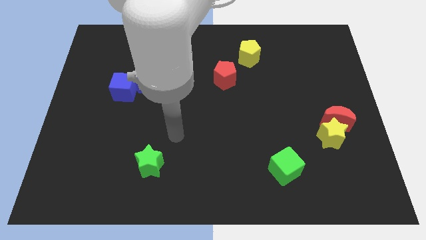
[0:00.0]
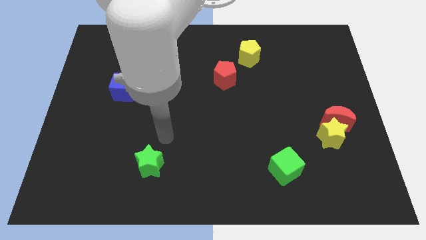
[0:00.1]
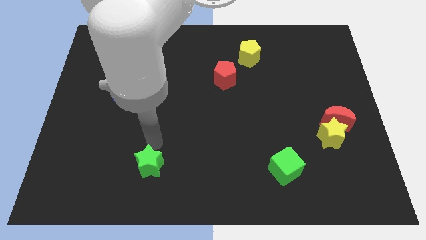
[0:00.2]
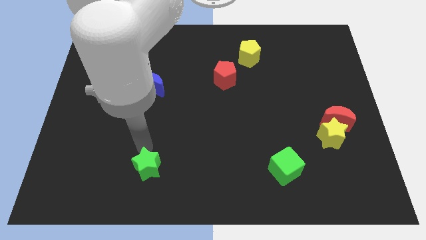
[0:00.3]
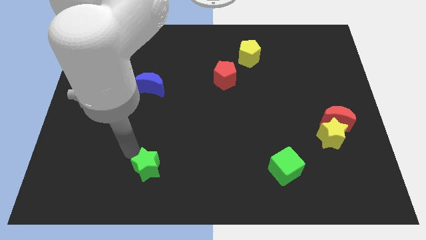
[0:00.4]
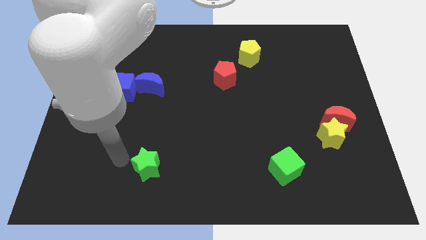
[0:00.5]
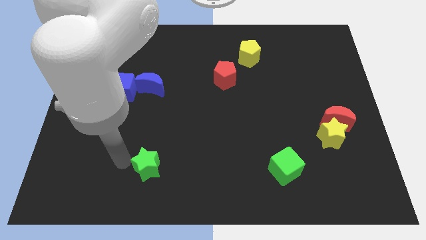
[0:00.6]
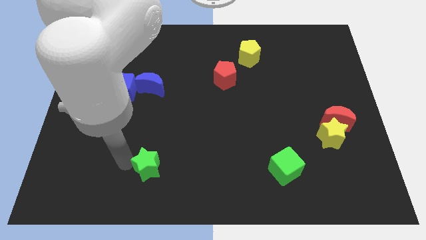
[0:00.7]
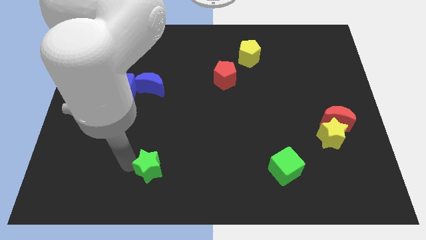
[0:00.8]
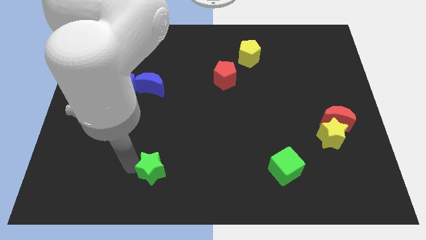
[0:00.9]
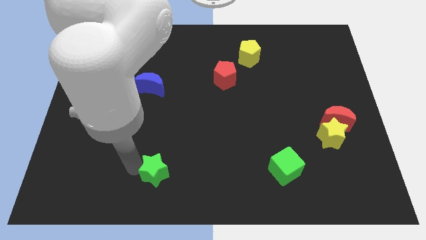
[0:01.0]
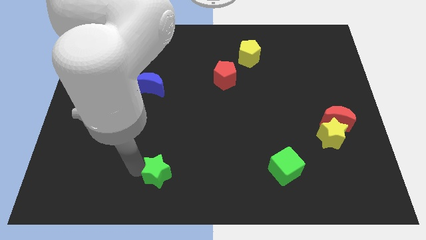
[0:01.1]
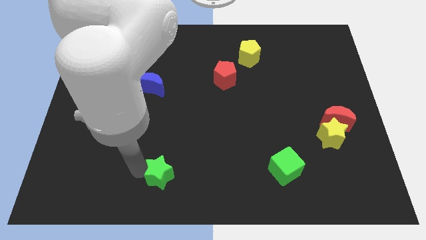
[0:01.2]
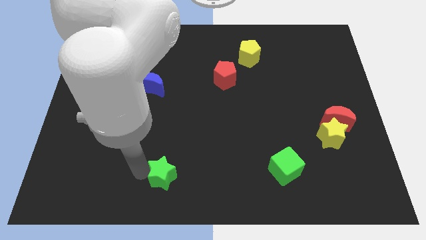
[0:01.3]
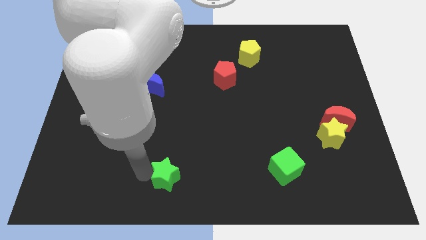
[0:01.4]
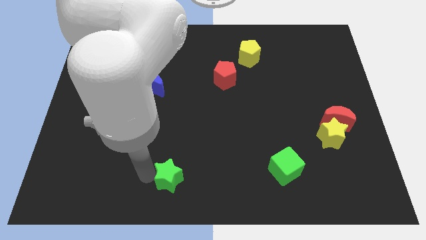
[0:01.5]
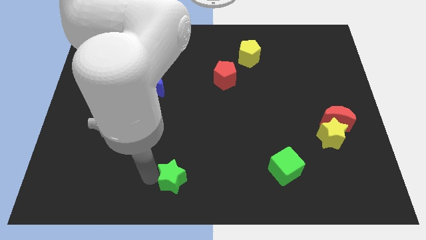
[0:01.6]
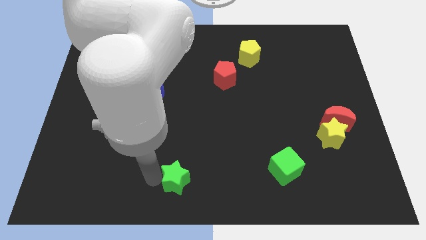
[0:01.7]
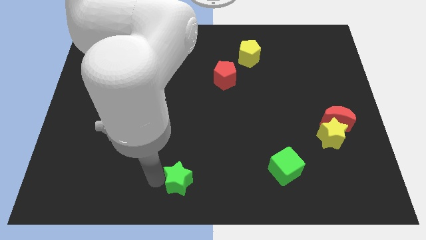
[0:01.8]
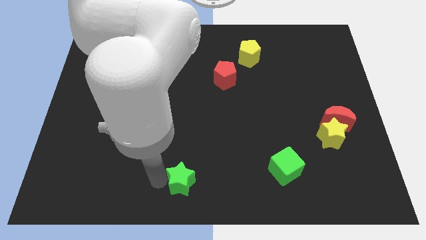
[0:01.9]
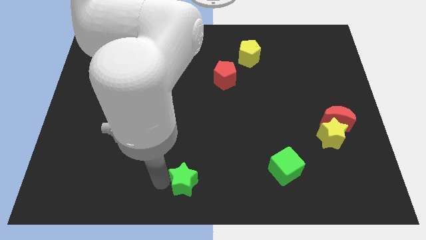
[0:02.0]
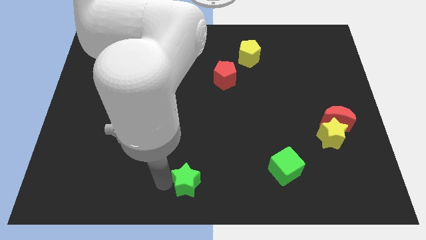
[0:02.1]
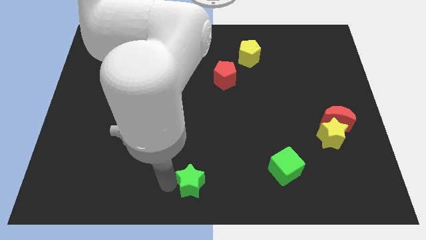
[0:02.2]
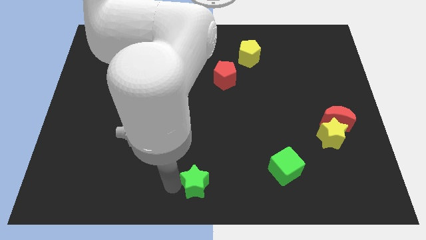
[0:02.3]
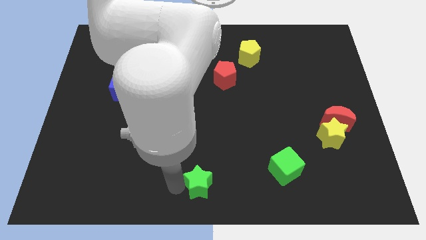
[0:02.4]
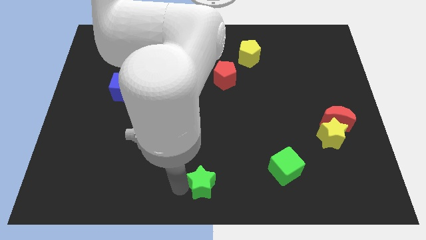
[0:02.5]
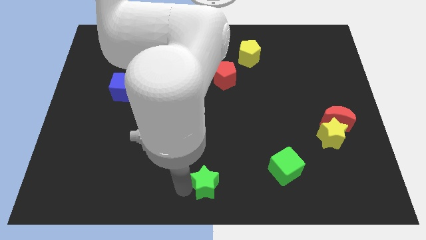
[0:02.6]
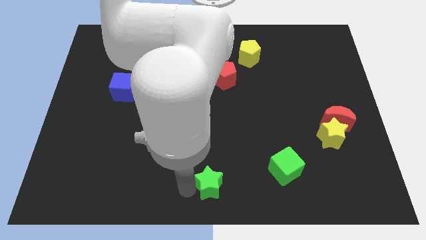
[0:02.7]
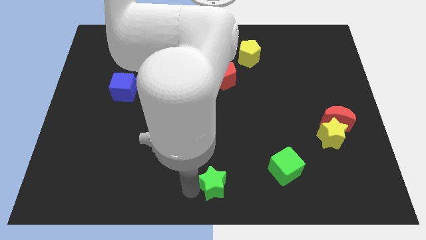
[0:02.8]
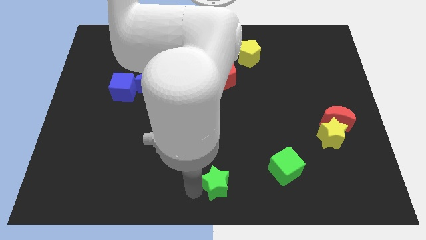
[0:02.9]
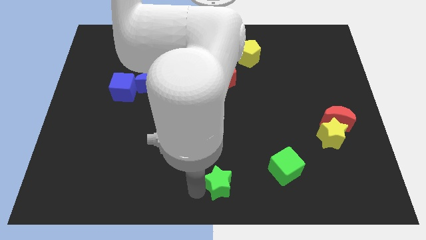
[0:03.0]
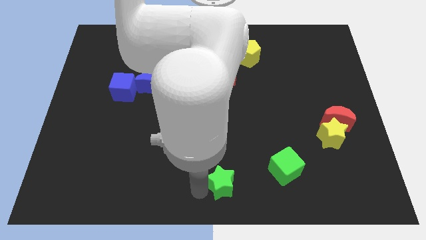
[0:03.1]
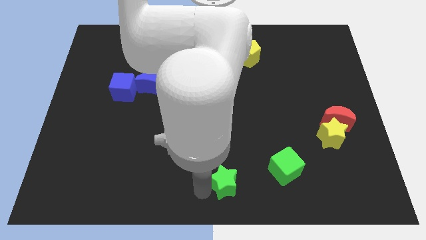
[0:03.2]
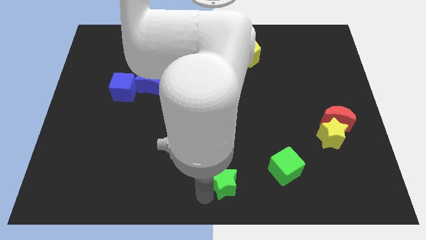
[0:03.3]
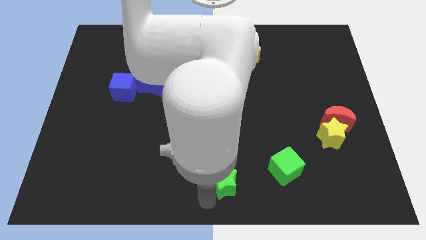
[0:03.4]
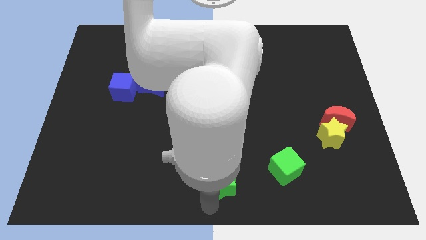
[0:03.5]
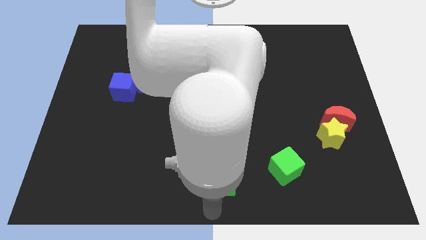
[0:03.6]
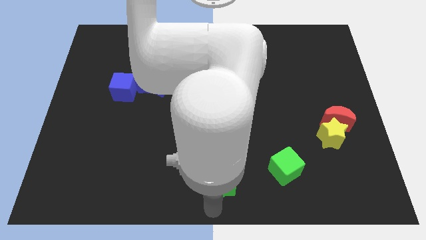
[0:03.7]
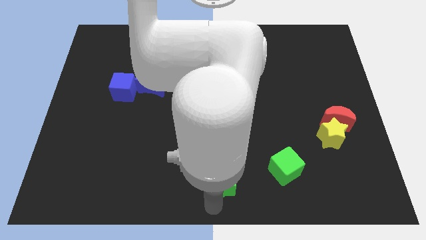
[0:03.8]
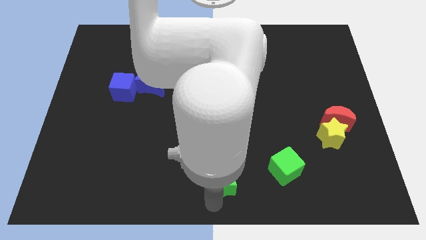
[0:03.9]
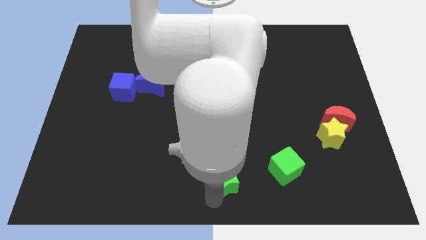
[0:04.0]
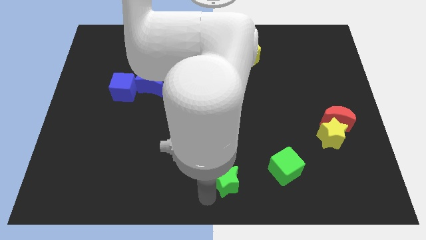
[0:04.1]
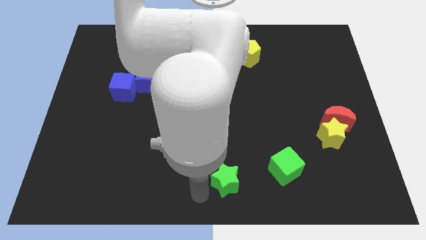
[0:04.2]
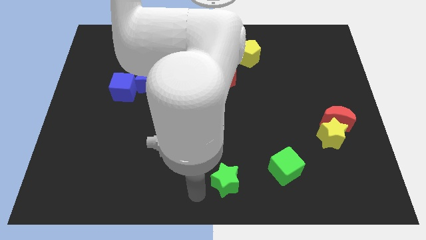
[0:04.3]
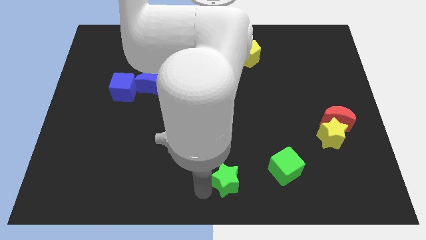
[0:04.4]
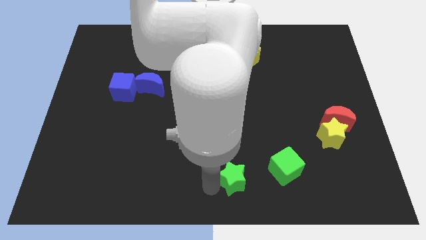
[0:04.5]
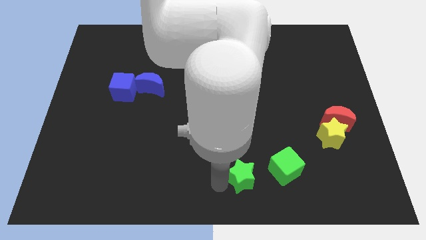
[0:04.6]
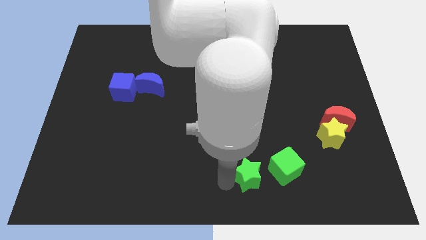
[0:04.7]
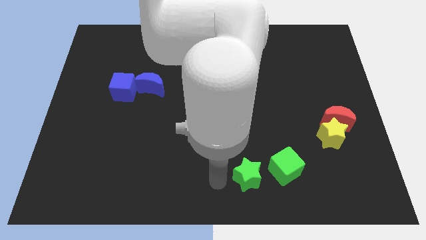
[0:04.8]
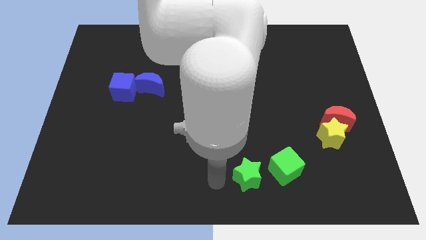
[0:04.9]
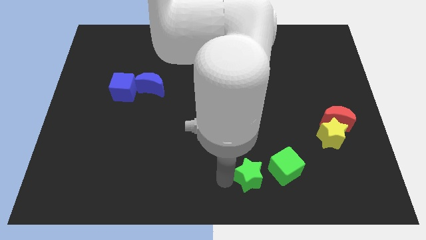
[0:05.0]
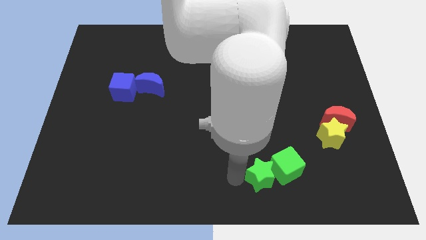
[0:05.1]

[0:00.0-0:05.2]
slide the green star towards the green cube

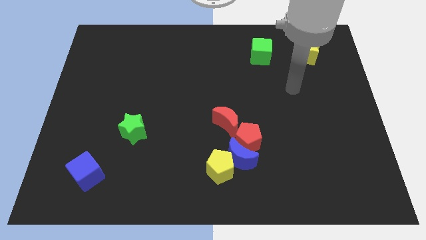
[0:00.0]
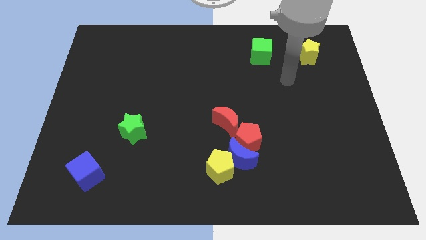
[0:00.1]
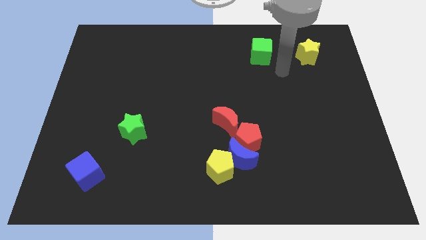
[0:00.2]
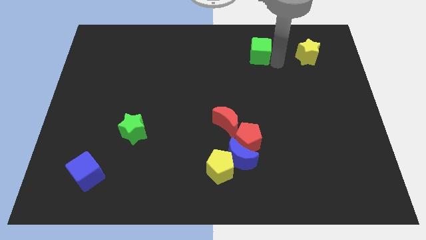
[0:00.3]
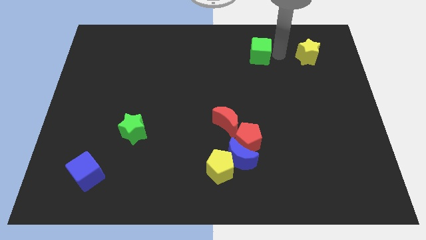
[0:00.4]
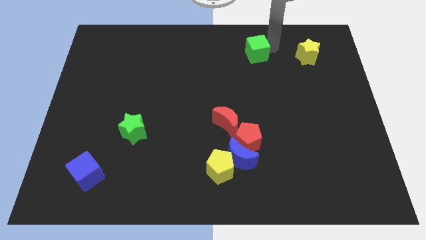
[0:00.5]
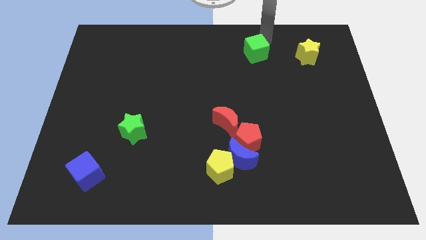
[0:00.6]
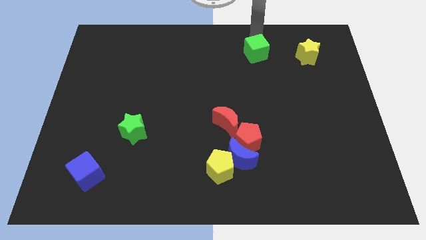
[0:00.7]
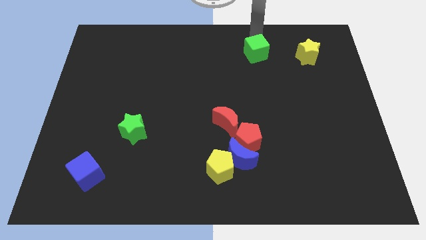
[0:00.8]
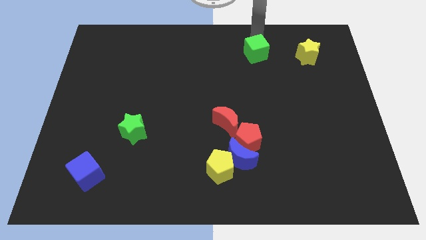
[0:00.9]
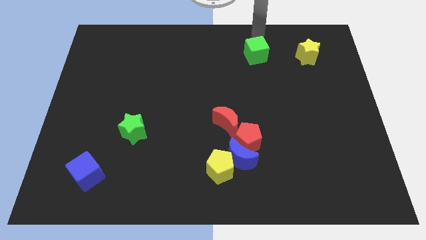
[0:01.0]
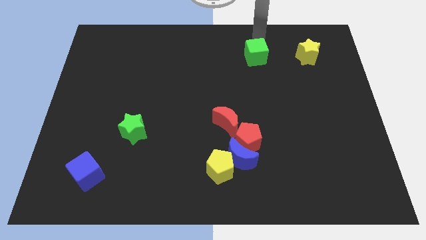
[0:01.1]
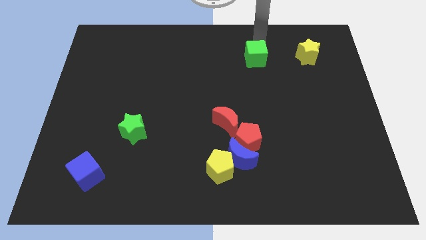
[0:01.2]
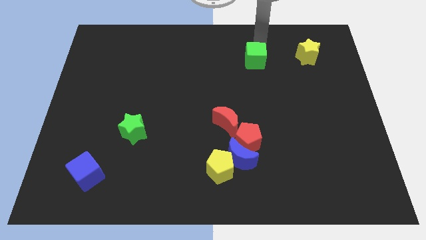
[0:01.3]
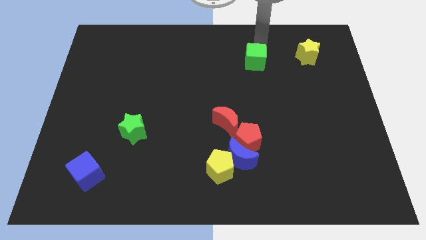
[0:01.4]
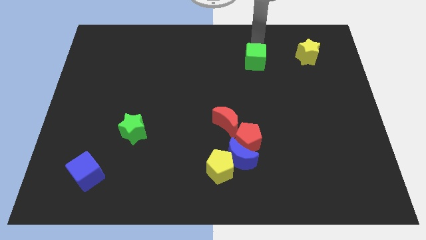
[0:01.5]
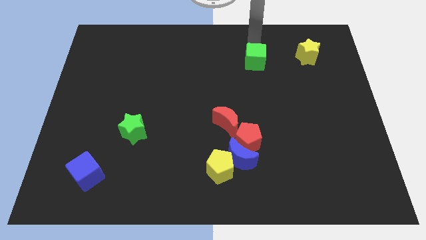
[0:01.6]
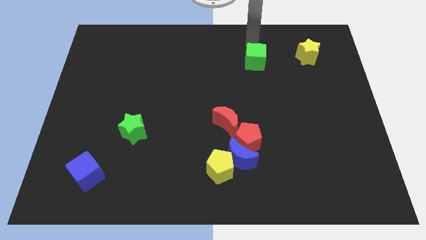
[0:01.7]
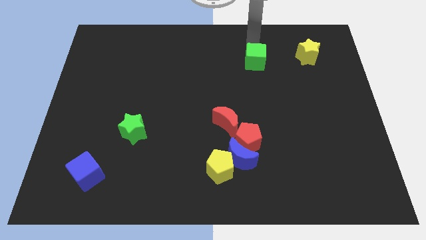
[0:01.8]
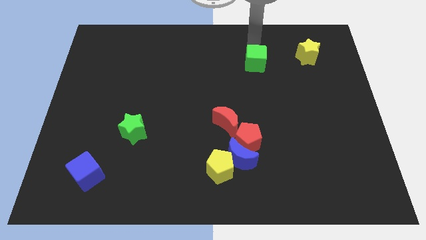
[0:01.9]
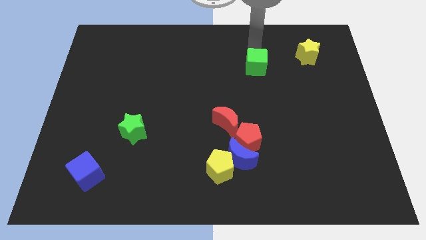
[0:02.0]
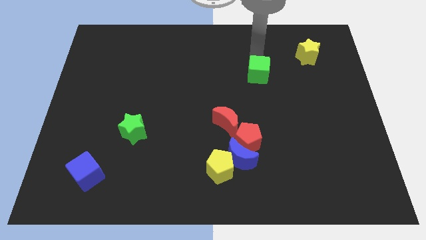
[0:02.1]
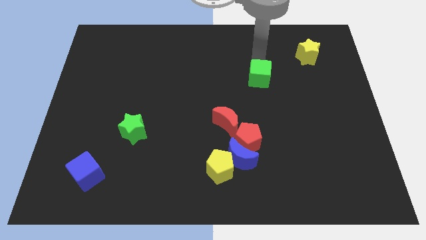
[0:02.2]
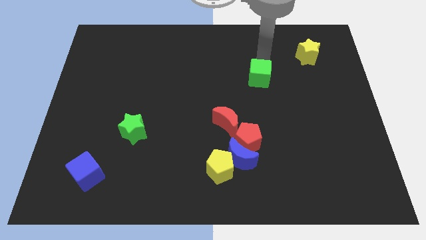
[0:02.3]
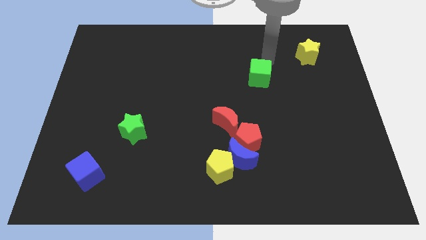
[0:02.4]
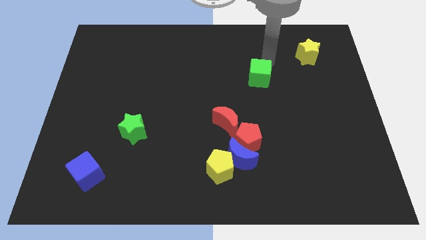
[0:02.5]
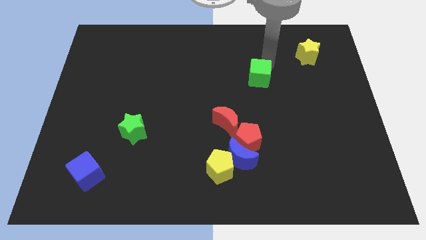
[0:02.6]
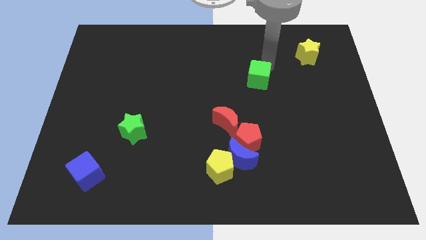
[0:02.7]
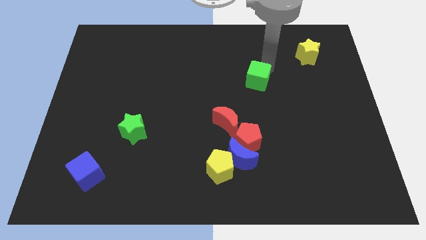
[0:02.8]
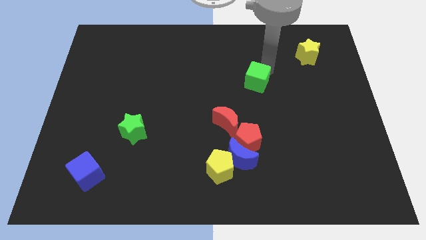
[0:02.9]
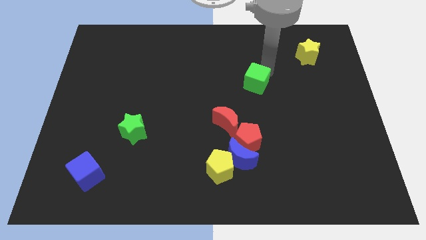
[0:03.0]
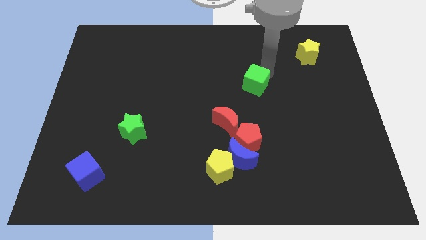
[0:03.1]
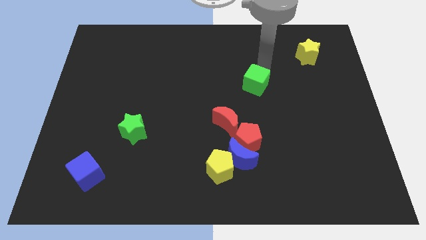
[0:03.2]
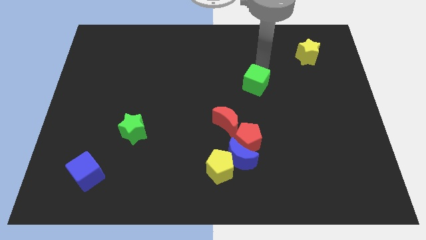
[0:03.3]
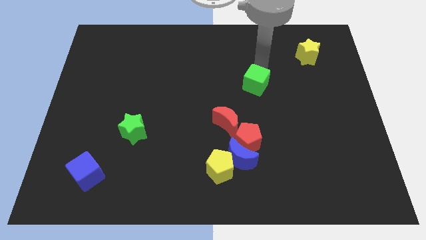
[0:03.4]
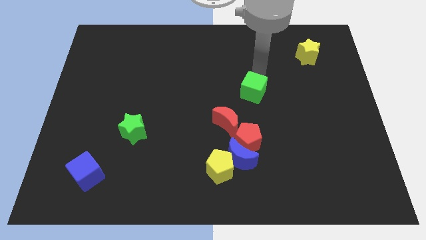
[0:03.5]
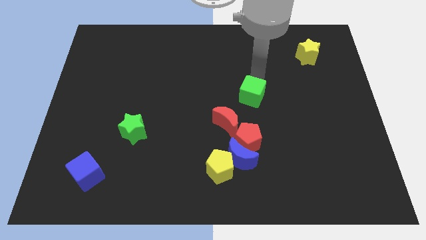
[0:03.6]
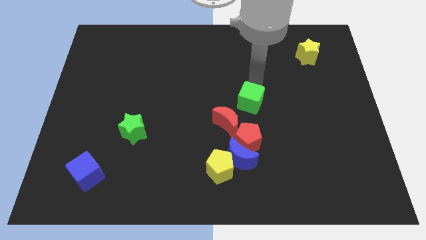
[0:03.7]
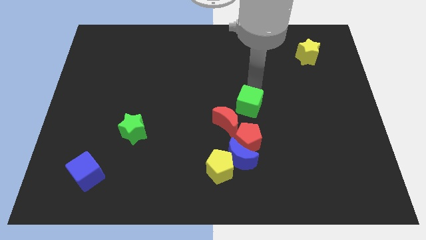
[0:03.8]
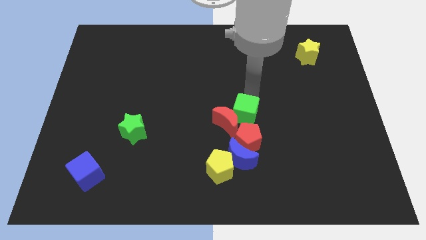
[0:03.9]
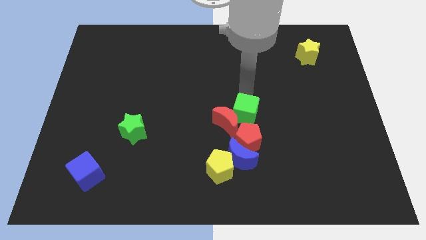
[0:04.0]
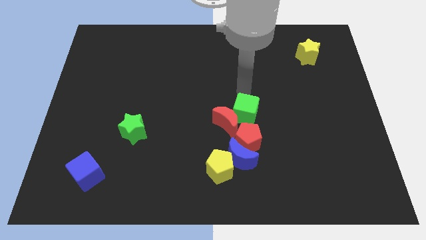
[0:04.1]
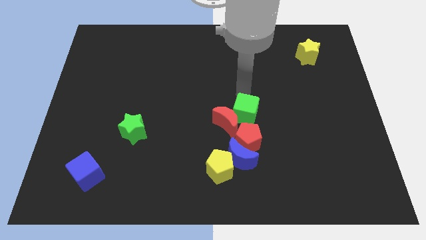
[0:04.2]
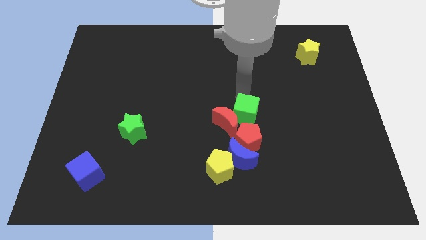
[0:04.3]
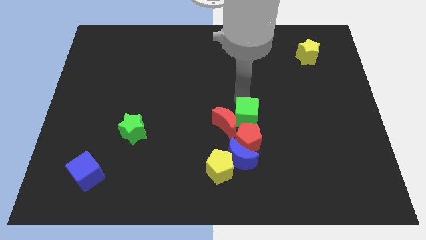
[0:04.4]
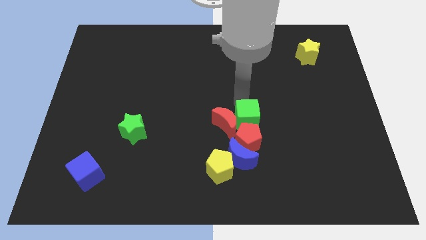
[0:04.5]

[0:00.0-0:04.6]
slide the green cube next to the red pentagon
